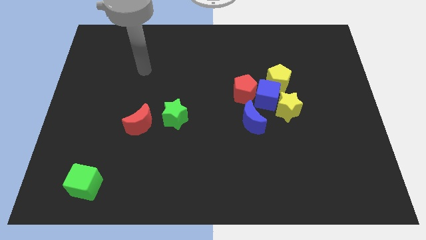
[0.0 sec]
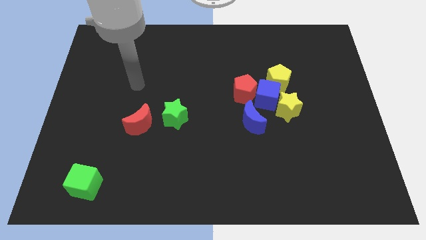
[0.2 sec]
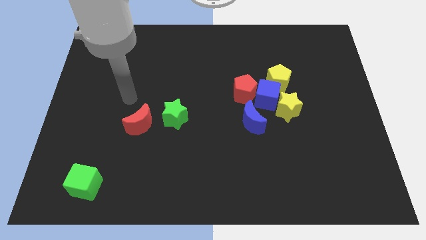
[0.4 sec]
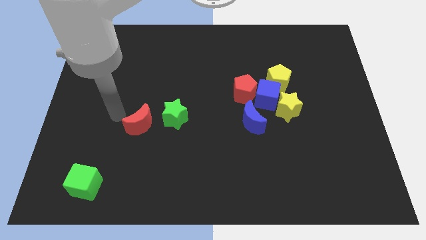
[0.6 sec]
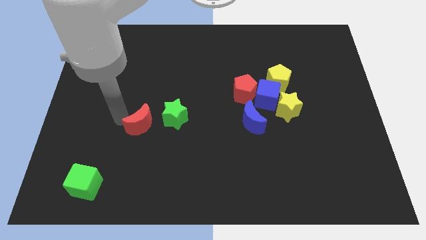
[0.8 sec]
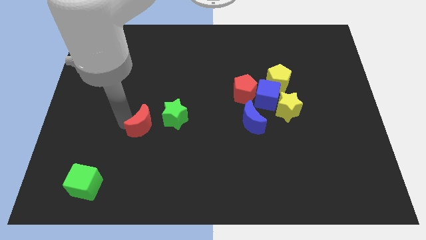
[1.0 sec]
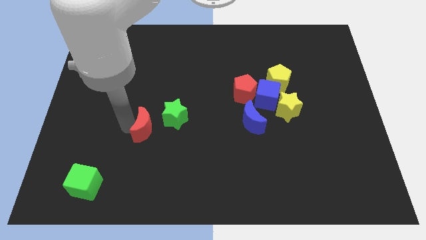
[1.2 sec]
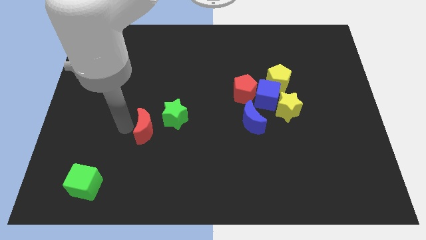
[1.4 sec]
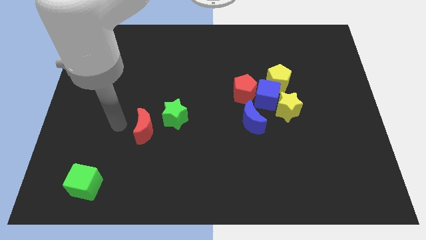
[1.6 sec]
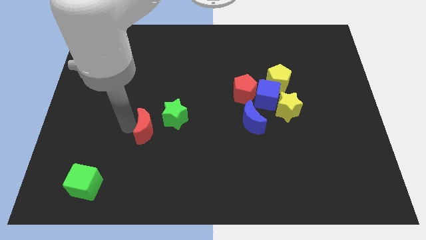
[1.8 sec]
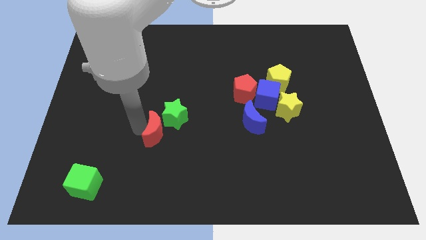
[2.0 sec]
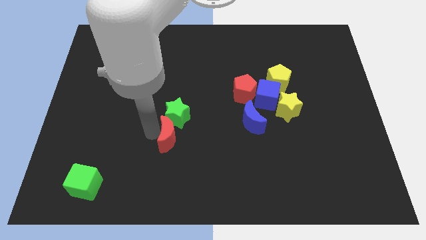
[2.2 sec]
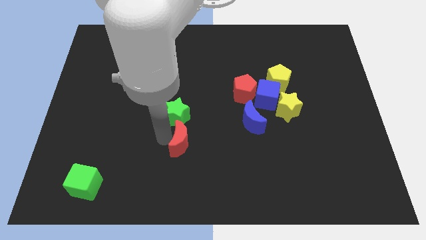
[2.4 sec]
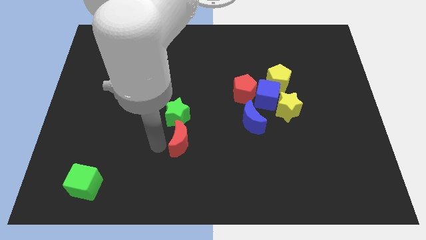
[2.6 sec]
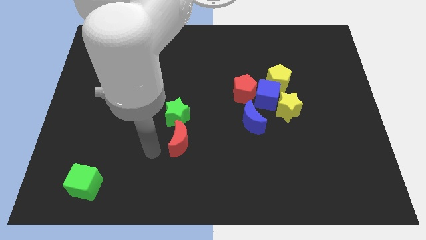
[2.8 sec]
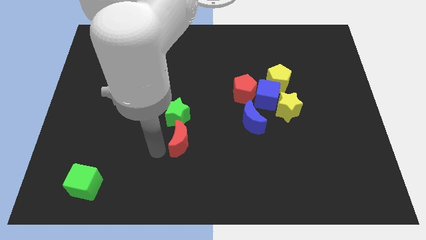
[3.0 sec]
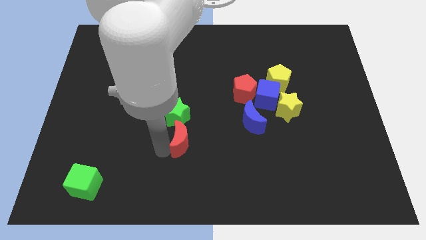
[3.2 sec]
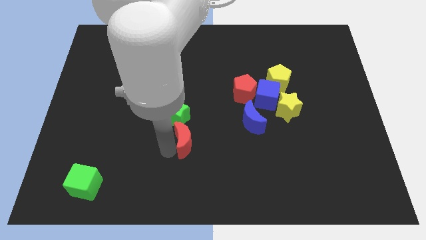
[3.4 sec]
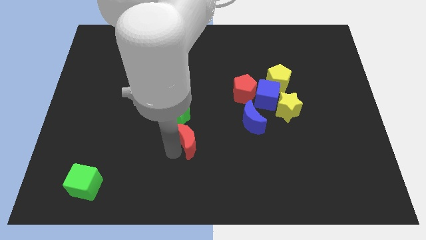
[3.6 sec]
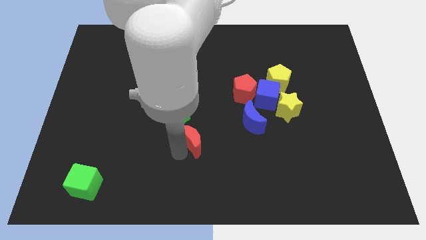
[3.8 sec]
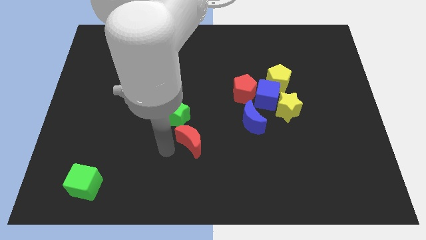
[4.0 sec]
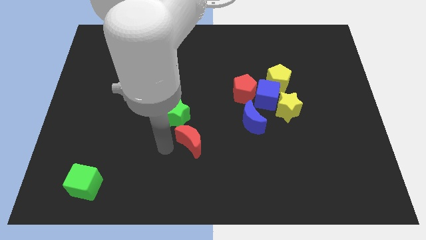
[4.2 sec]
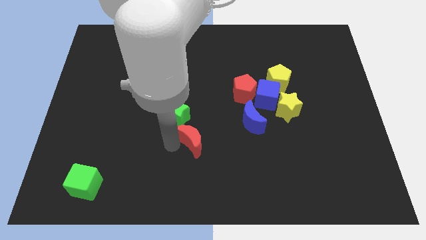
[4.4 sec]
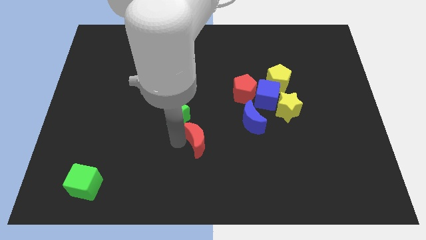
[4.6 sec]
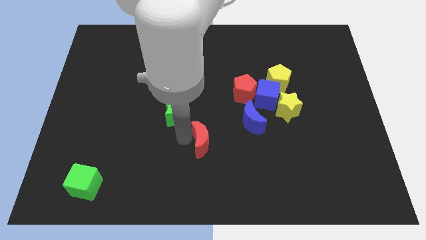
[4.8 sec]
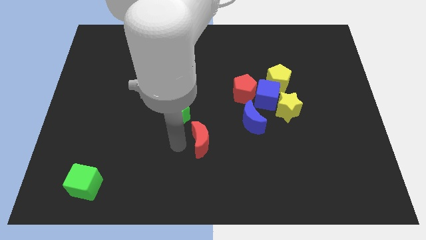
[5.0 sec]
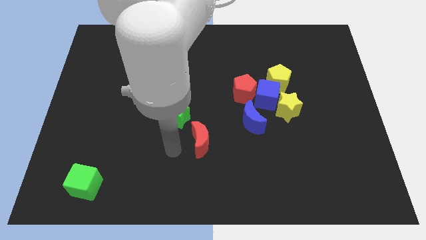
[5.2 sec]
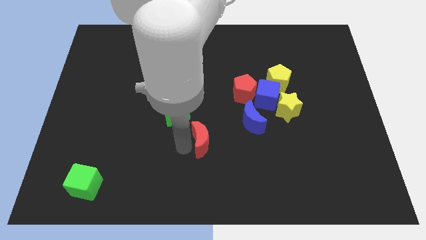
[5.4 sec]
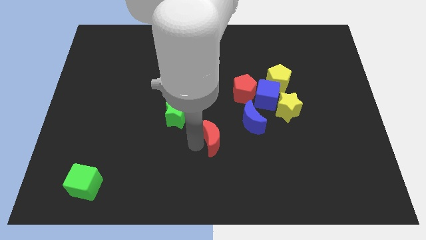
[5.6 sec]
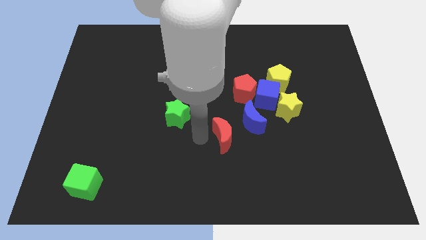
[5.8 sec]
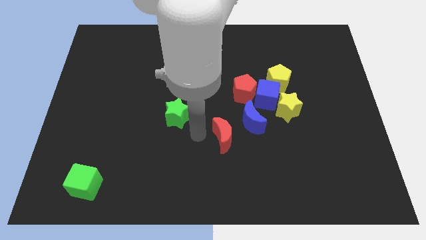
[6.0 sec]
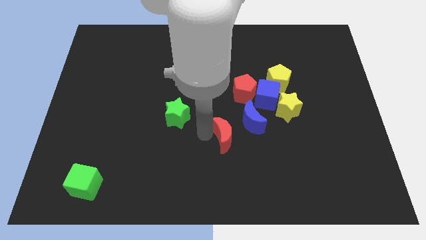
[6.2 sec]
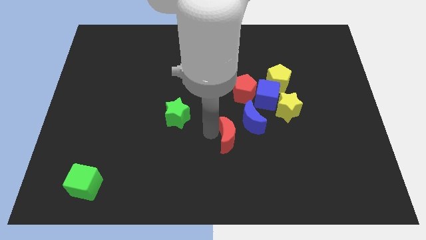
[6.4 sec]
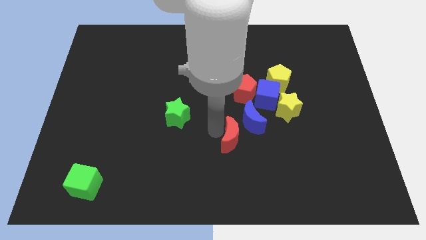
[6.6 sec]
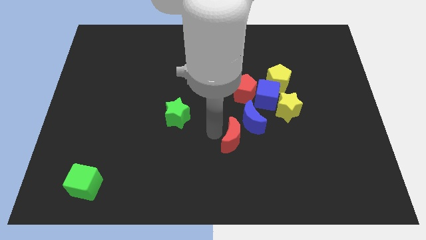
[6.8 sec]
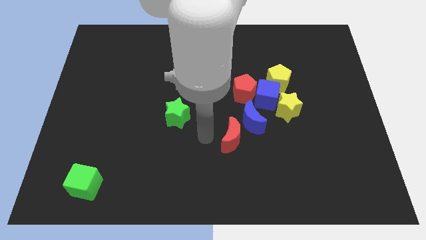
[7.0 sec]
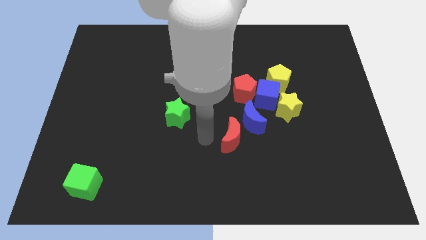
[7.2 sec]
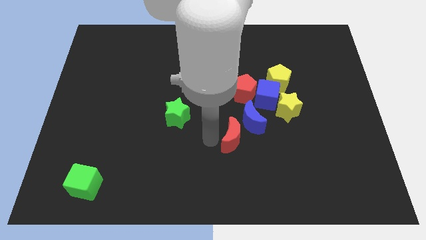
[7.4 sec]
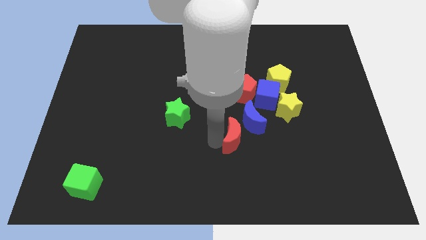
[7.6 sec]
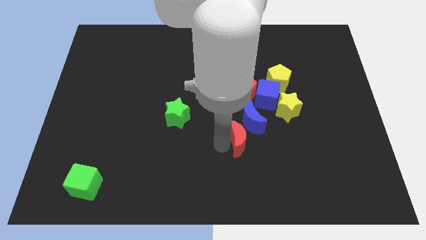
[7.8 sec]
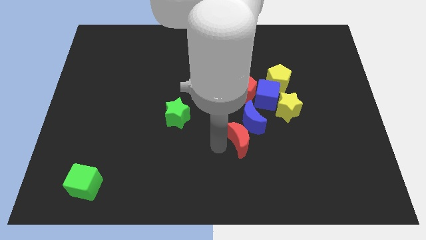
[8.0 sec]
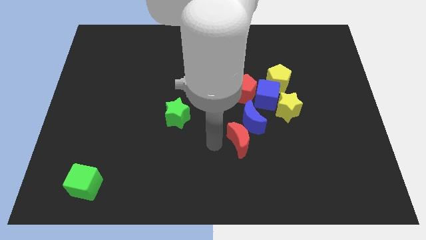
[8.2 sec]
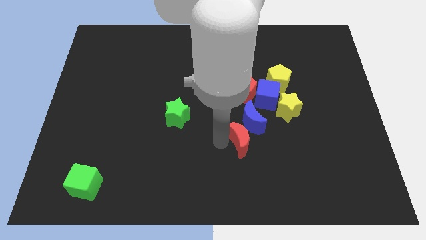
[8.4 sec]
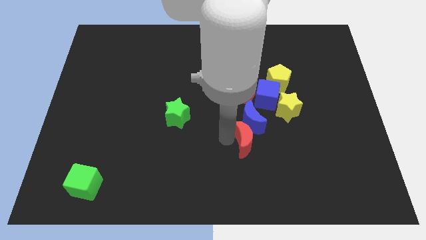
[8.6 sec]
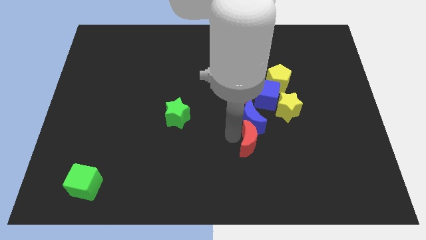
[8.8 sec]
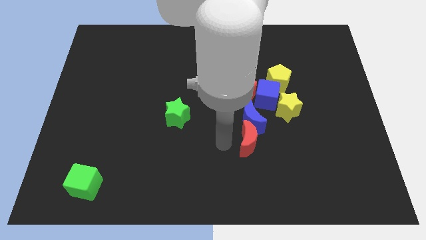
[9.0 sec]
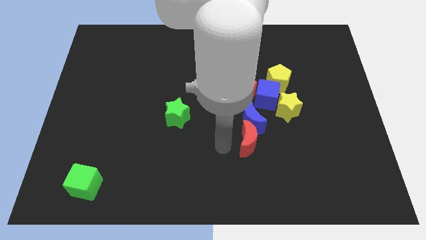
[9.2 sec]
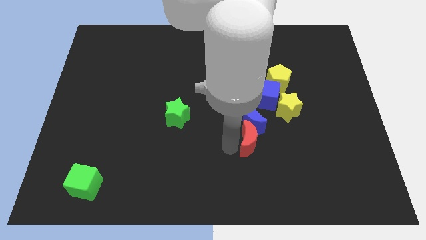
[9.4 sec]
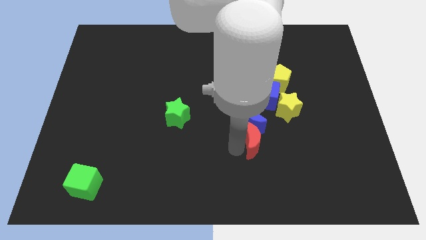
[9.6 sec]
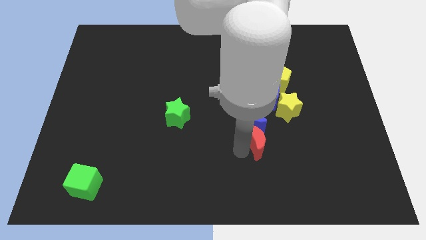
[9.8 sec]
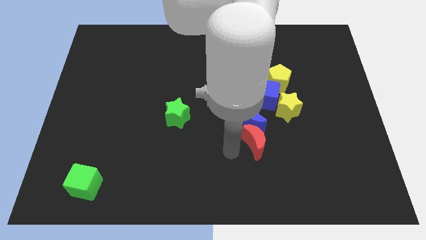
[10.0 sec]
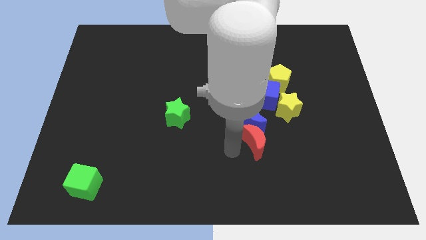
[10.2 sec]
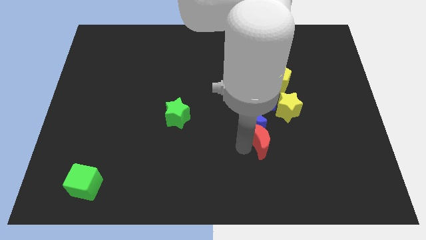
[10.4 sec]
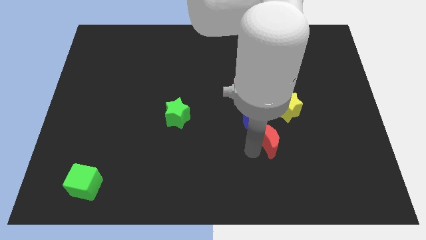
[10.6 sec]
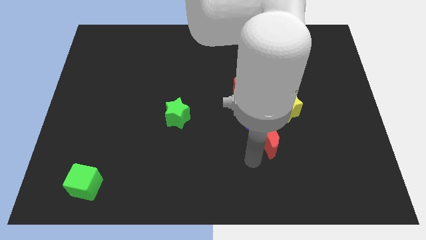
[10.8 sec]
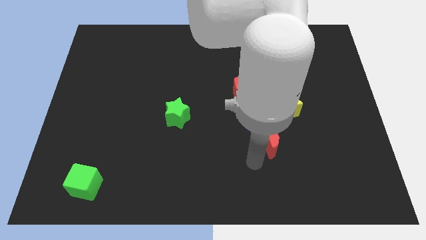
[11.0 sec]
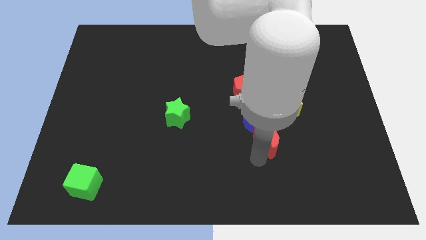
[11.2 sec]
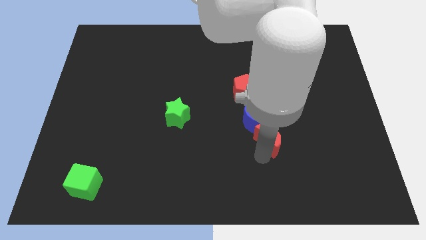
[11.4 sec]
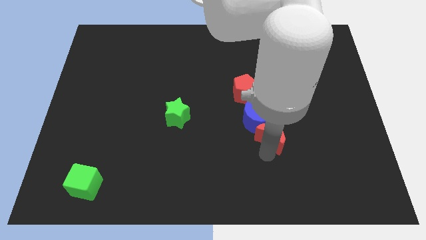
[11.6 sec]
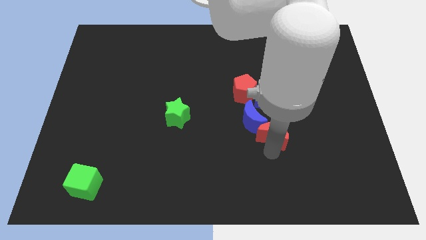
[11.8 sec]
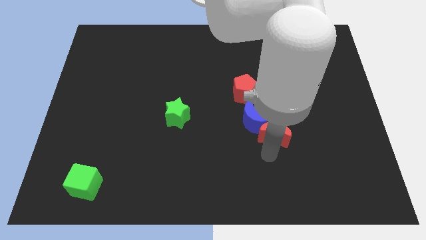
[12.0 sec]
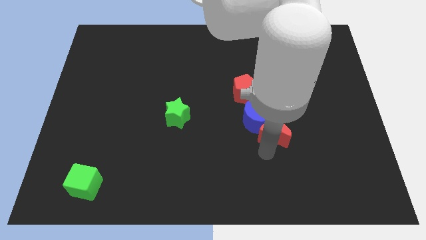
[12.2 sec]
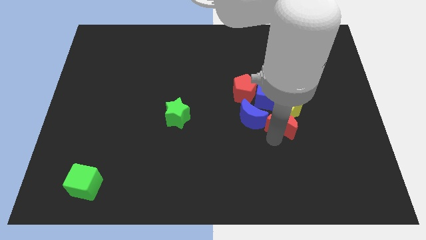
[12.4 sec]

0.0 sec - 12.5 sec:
move the red moon close to the yellow star
